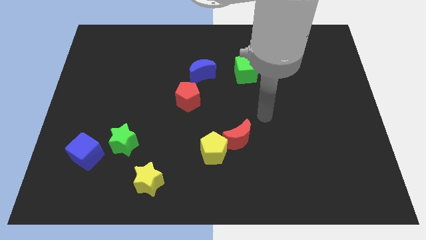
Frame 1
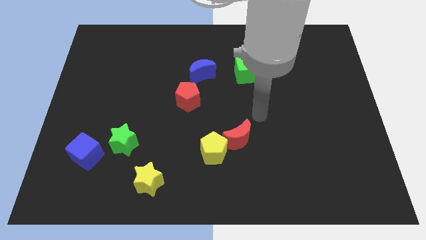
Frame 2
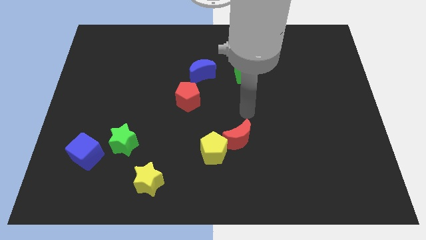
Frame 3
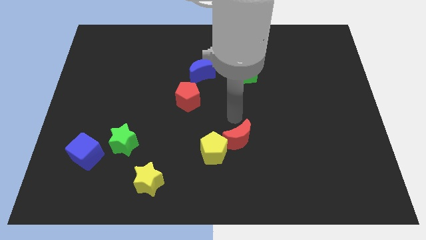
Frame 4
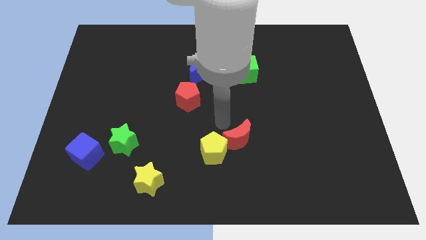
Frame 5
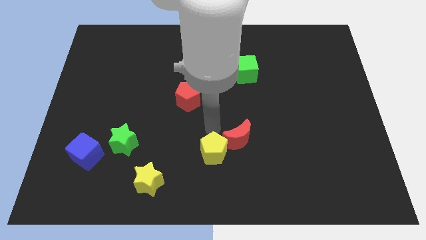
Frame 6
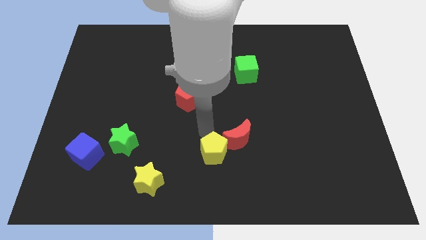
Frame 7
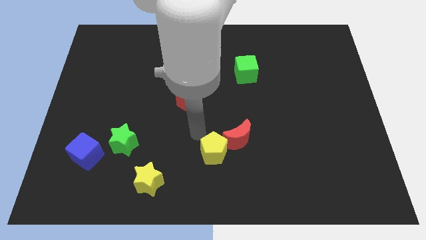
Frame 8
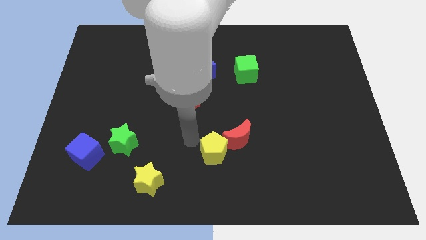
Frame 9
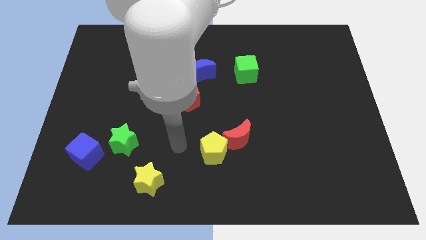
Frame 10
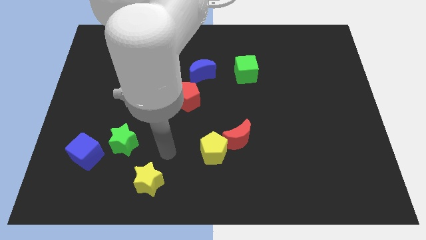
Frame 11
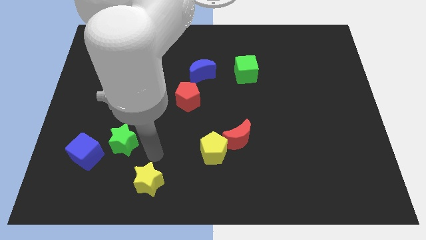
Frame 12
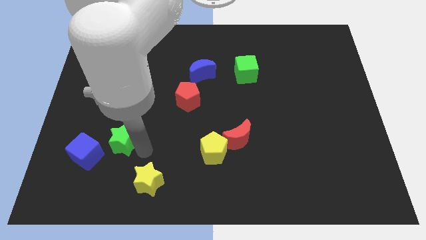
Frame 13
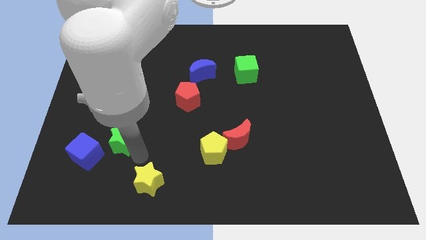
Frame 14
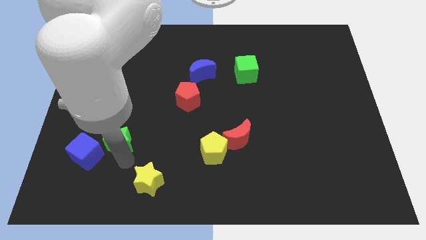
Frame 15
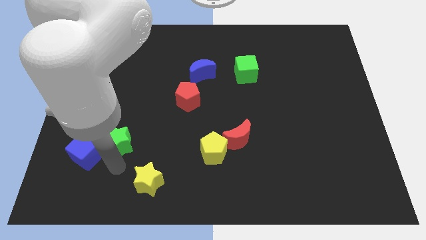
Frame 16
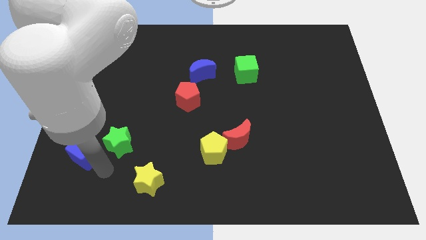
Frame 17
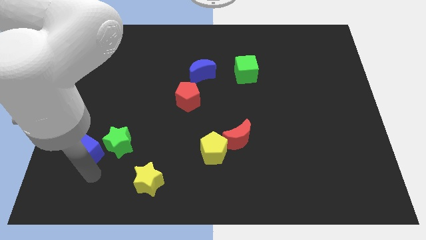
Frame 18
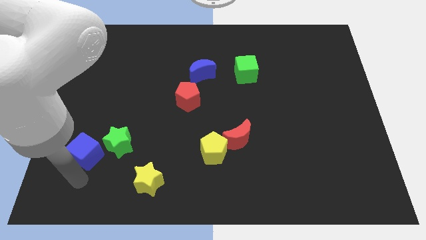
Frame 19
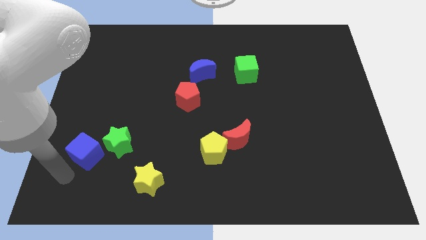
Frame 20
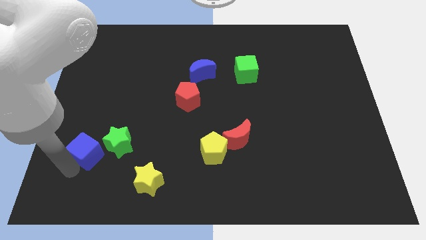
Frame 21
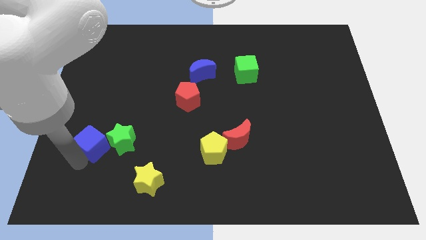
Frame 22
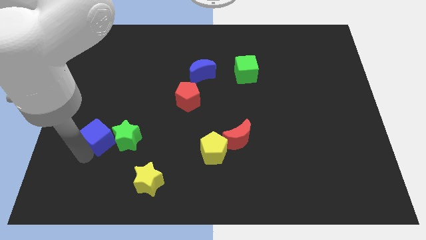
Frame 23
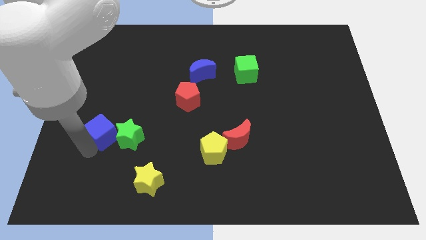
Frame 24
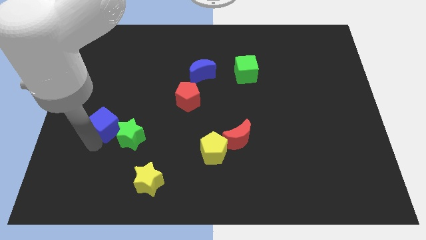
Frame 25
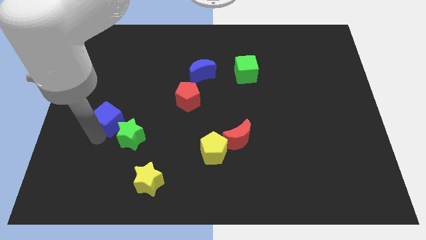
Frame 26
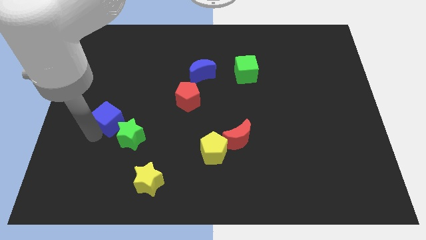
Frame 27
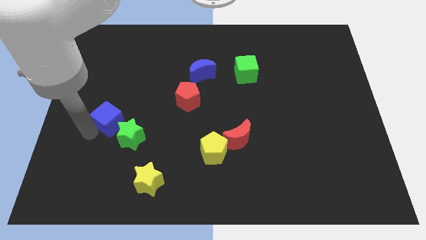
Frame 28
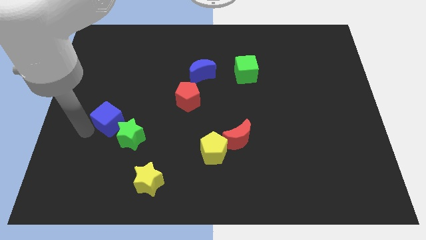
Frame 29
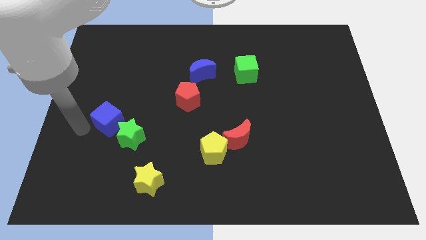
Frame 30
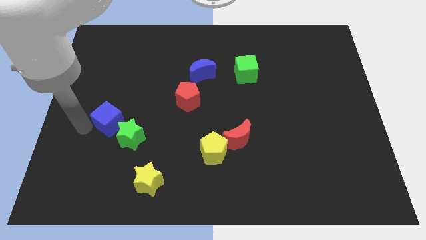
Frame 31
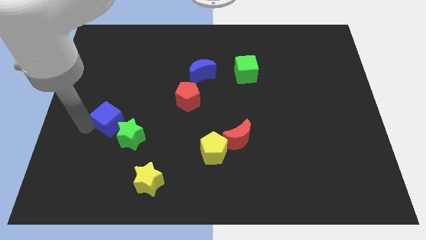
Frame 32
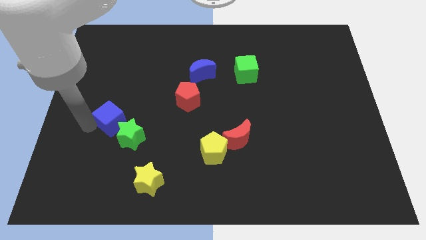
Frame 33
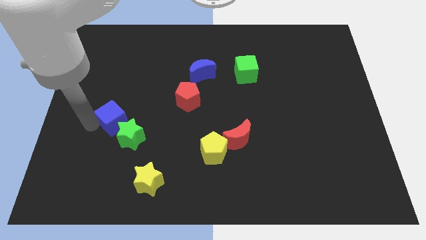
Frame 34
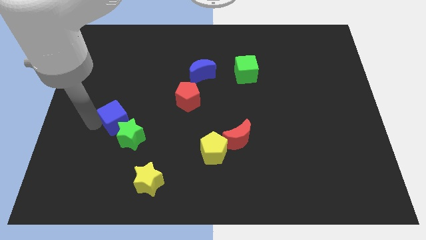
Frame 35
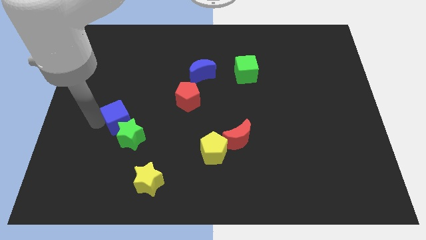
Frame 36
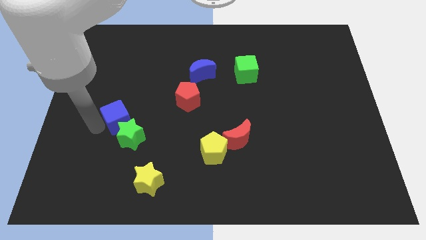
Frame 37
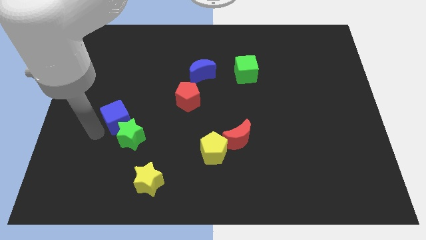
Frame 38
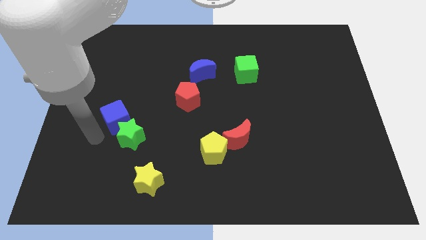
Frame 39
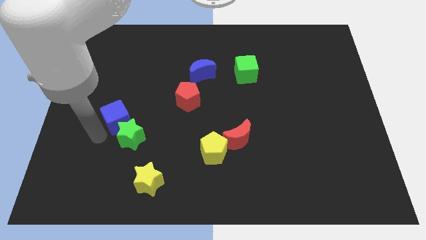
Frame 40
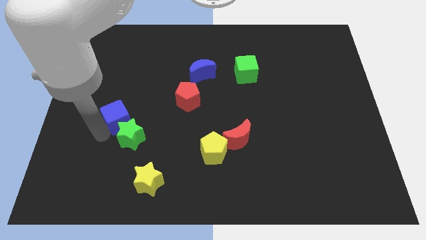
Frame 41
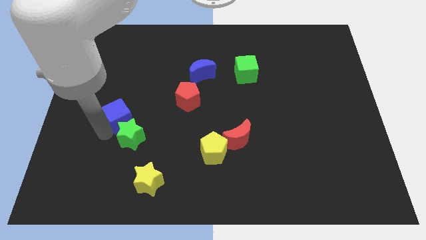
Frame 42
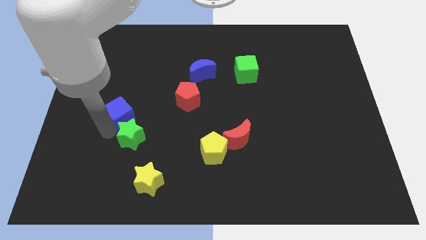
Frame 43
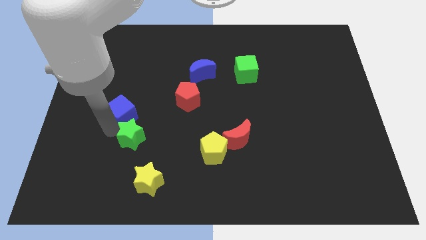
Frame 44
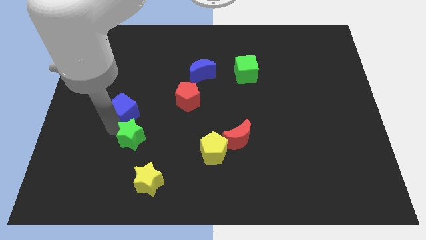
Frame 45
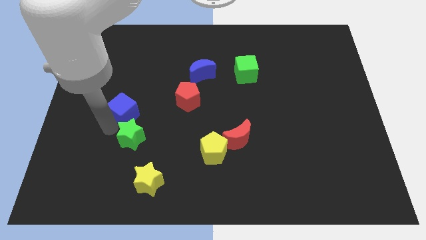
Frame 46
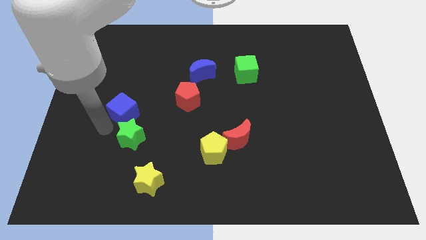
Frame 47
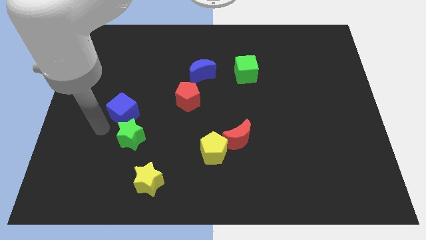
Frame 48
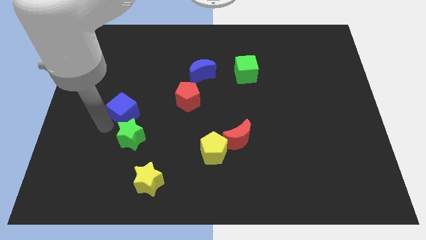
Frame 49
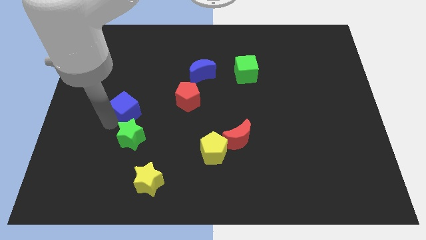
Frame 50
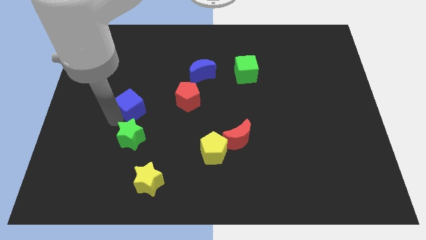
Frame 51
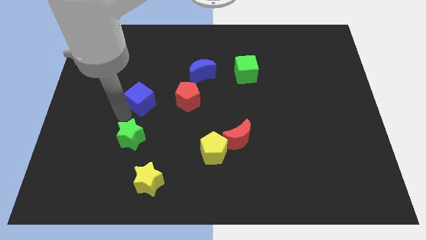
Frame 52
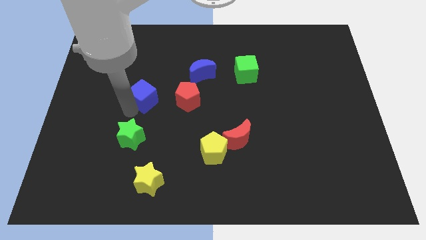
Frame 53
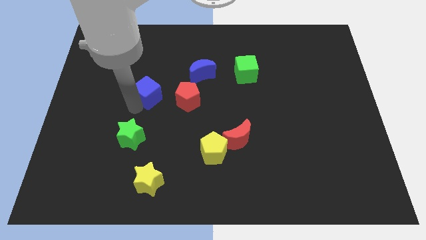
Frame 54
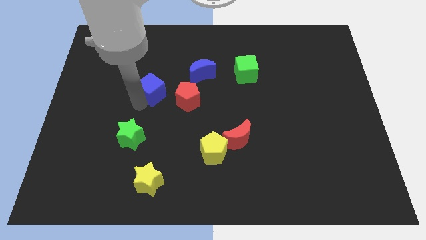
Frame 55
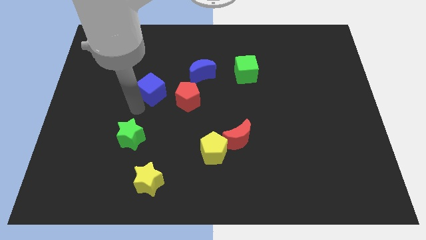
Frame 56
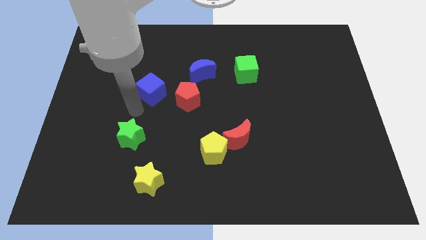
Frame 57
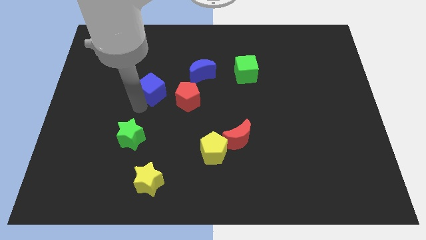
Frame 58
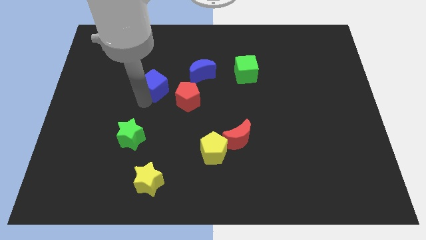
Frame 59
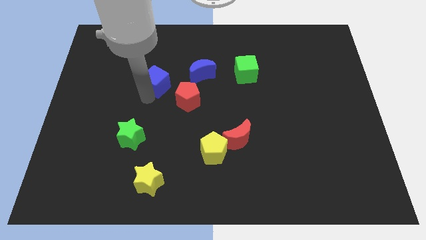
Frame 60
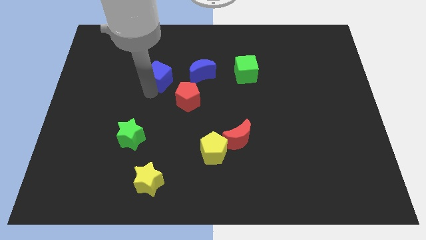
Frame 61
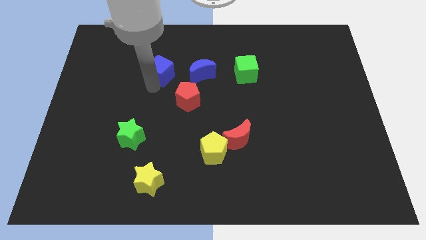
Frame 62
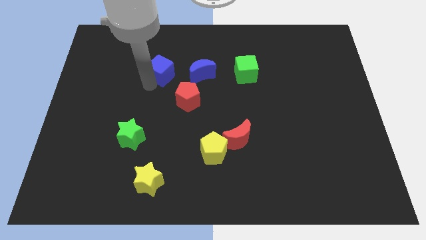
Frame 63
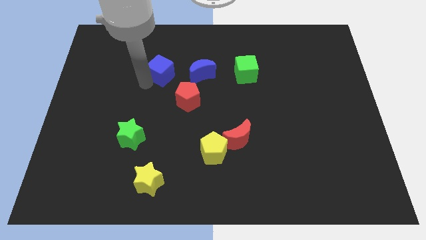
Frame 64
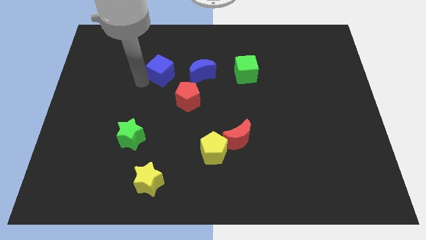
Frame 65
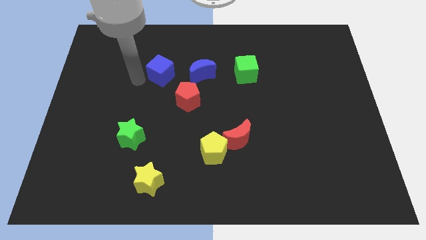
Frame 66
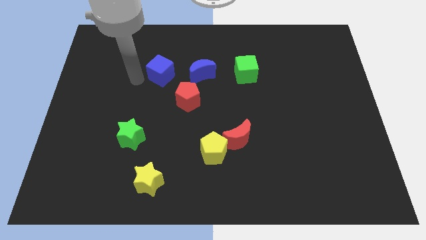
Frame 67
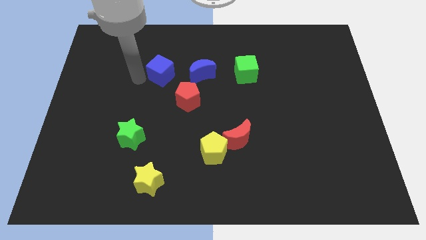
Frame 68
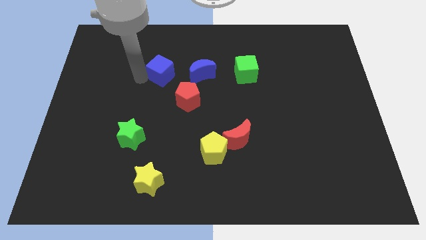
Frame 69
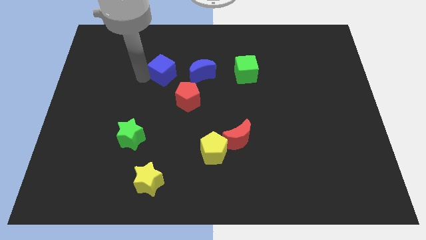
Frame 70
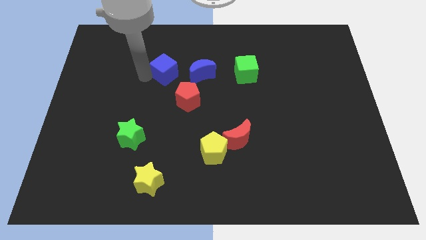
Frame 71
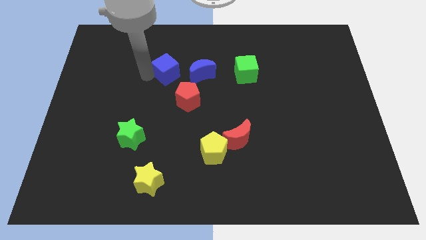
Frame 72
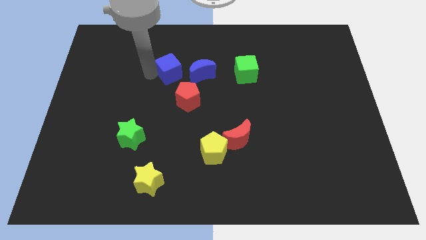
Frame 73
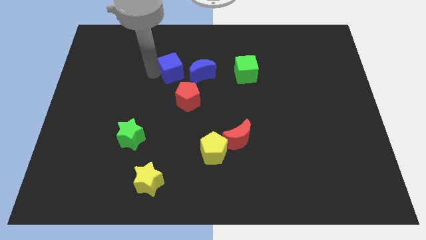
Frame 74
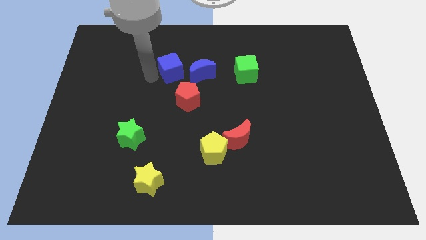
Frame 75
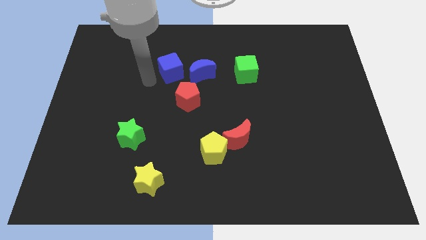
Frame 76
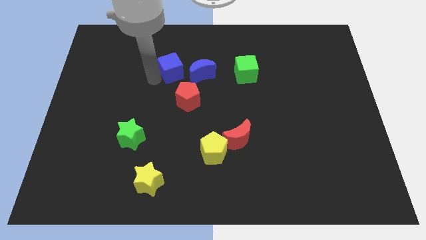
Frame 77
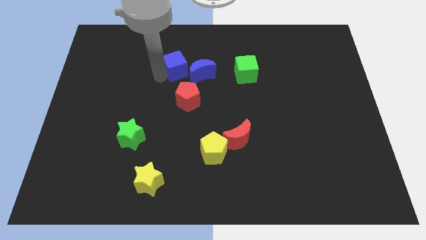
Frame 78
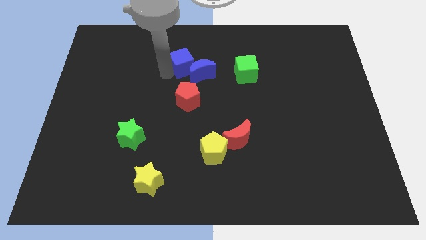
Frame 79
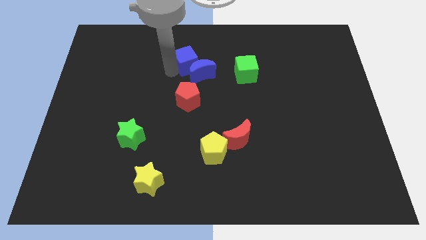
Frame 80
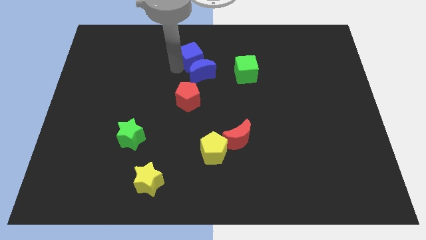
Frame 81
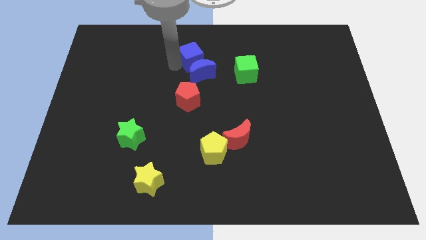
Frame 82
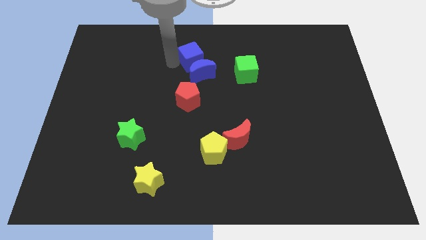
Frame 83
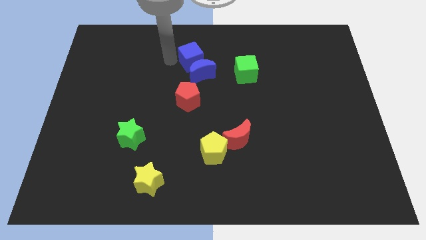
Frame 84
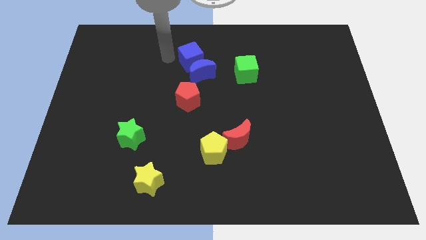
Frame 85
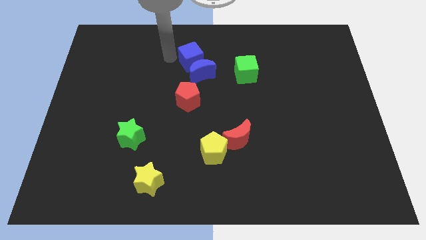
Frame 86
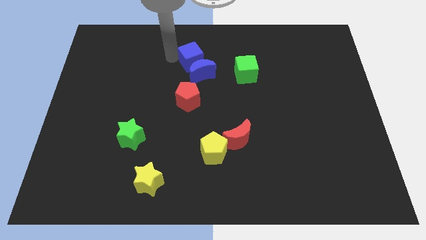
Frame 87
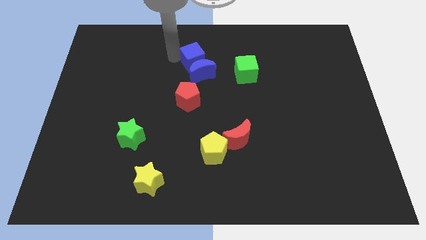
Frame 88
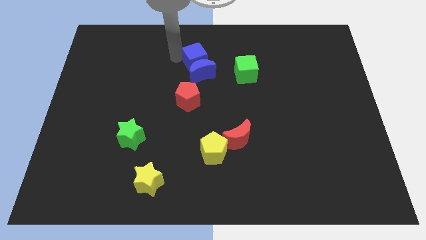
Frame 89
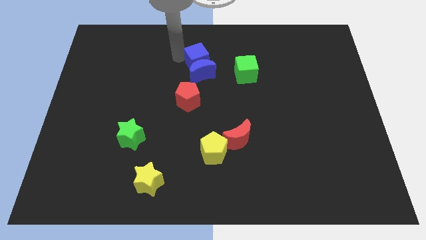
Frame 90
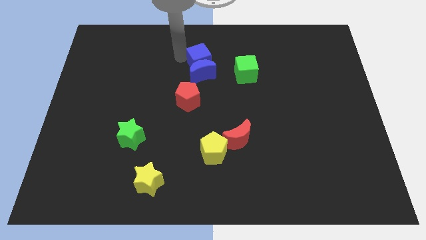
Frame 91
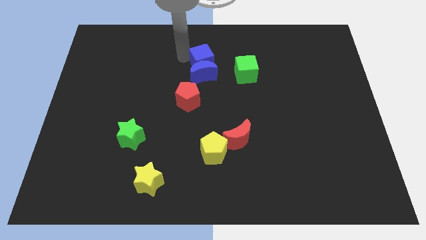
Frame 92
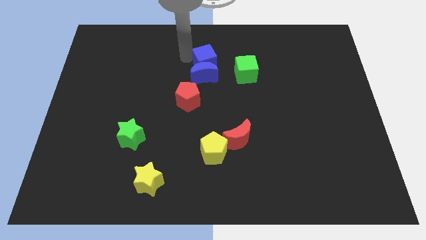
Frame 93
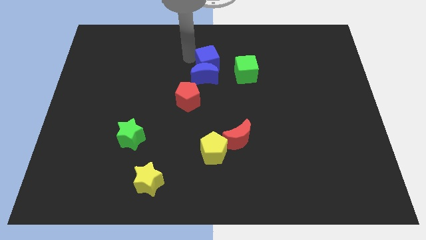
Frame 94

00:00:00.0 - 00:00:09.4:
put the blue cube to the top left side of the green cube
